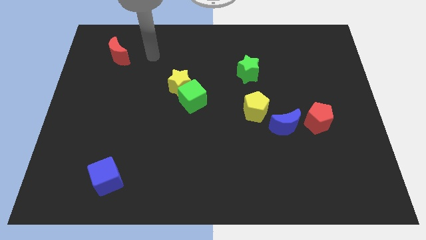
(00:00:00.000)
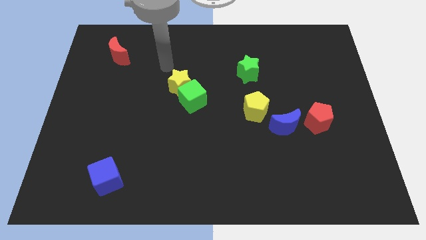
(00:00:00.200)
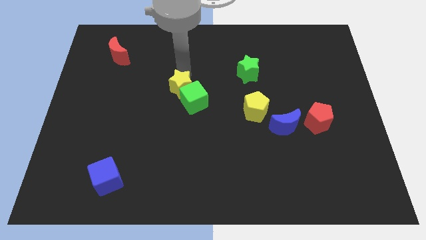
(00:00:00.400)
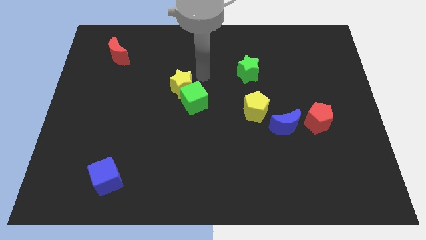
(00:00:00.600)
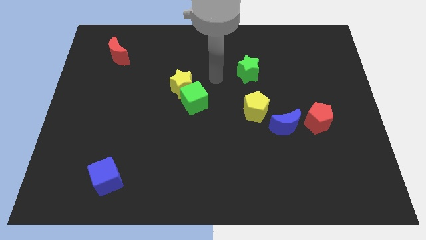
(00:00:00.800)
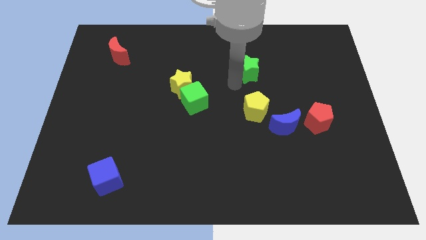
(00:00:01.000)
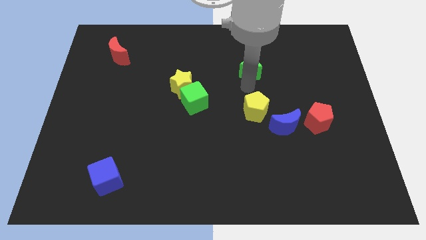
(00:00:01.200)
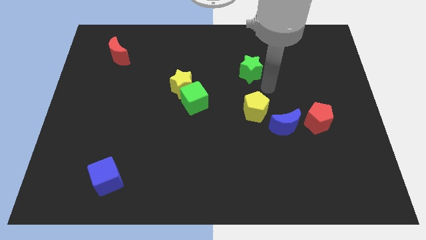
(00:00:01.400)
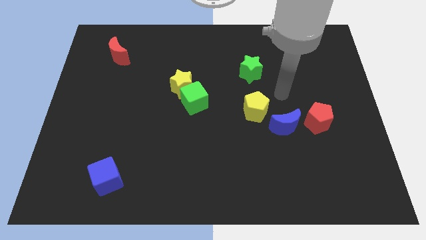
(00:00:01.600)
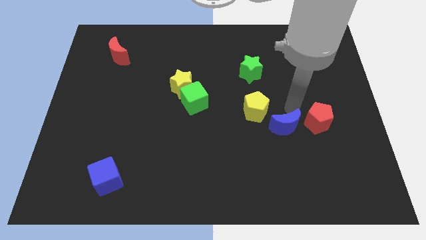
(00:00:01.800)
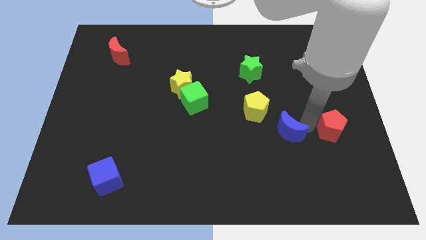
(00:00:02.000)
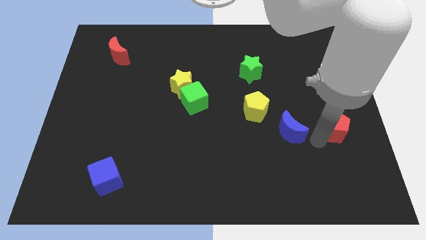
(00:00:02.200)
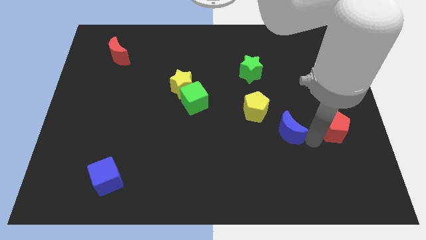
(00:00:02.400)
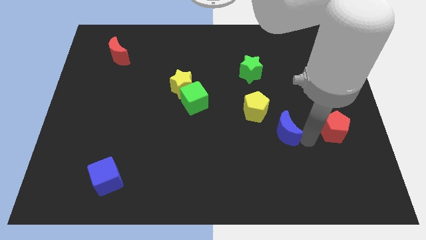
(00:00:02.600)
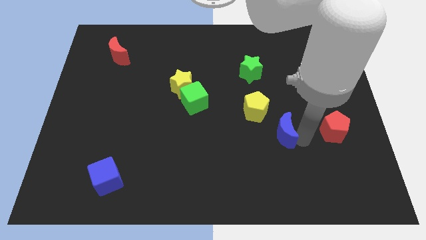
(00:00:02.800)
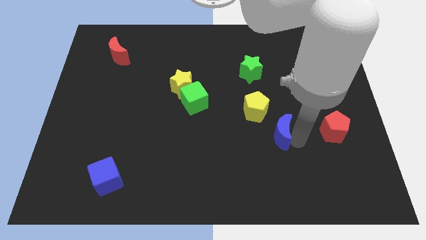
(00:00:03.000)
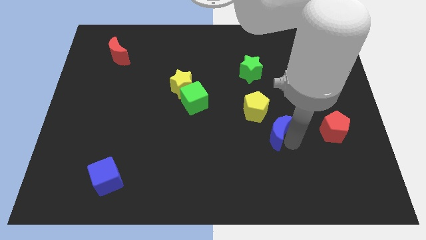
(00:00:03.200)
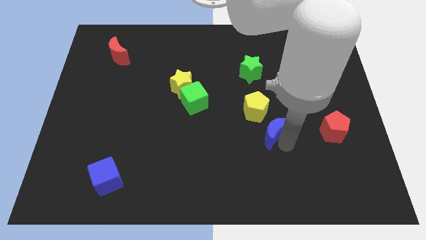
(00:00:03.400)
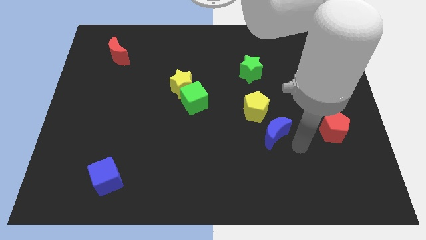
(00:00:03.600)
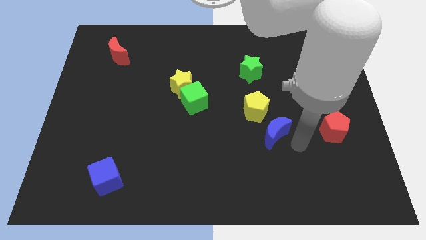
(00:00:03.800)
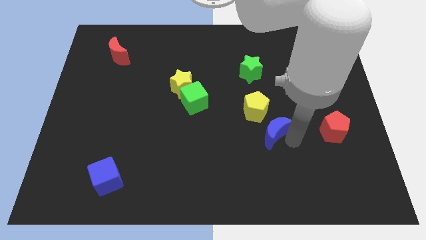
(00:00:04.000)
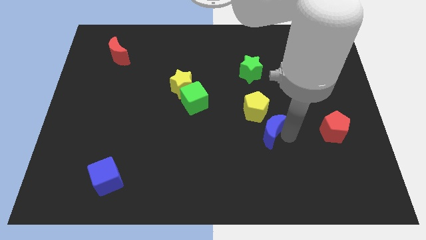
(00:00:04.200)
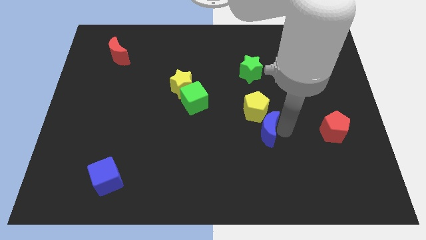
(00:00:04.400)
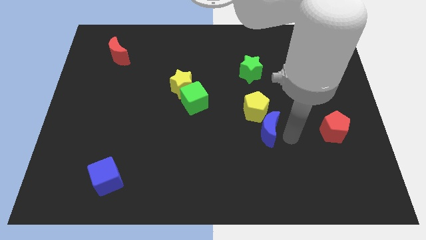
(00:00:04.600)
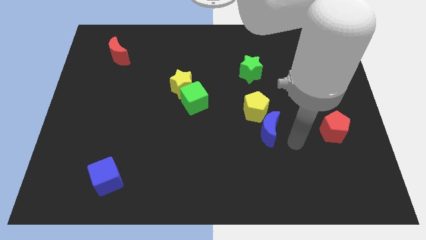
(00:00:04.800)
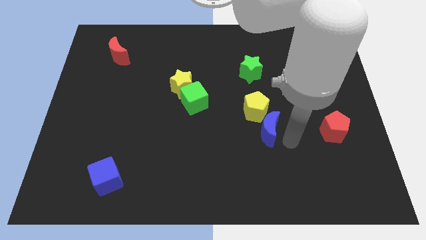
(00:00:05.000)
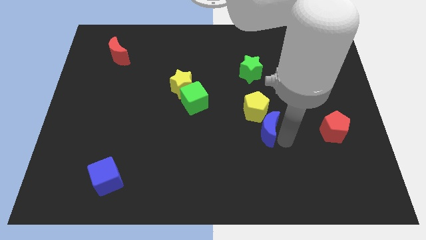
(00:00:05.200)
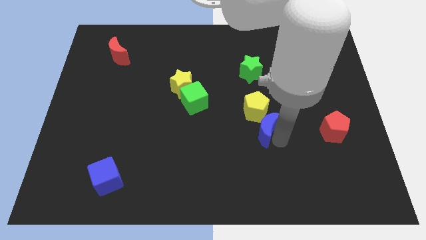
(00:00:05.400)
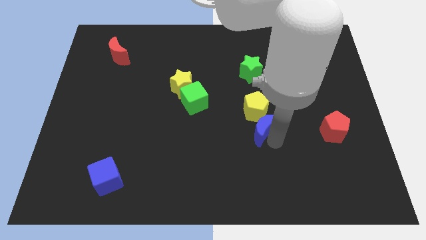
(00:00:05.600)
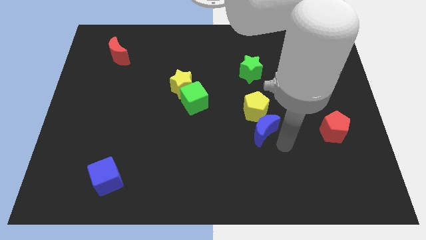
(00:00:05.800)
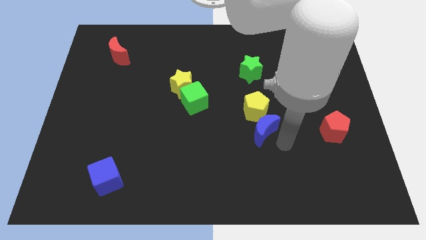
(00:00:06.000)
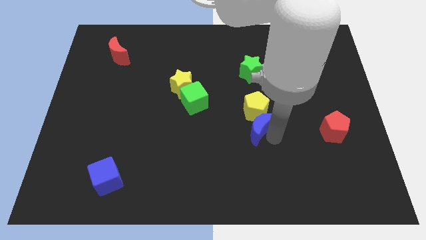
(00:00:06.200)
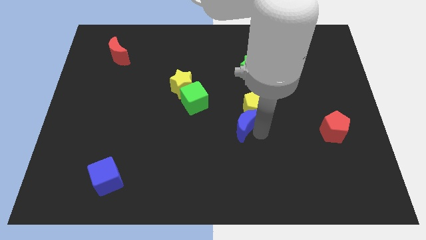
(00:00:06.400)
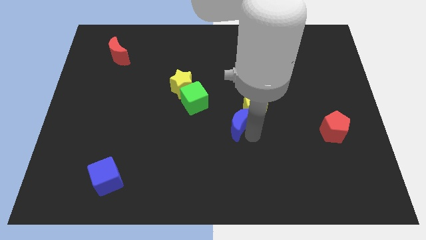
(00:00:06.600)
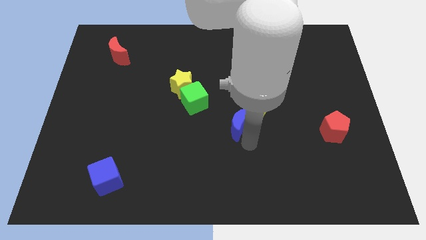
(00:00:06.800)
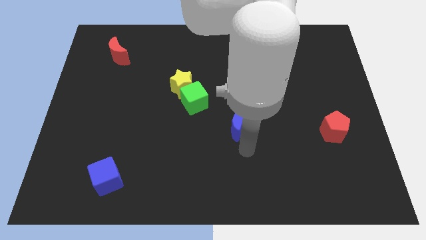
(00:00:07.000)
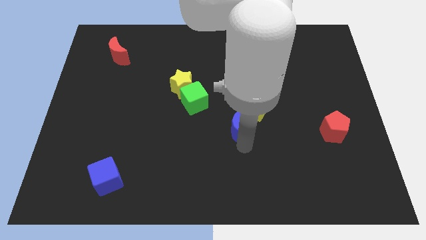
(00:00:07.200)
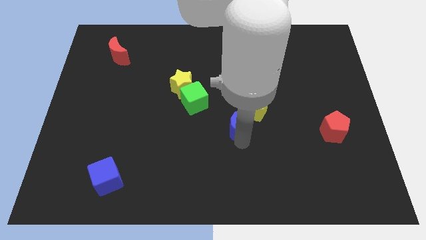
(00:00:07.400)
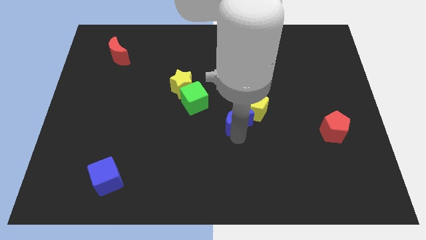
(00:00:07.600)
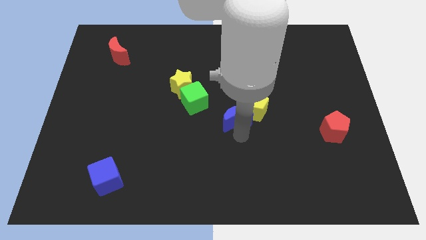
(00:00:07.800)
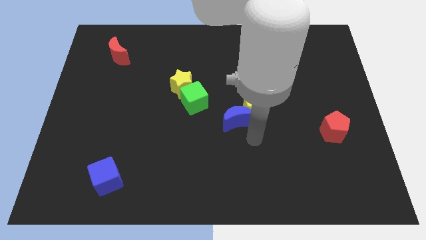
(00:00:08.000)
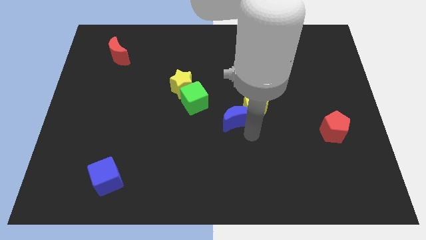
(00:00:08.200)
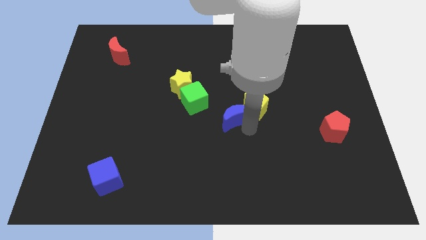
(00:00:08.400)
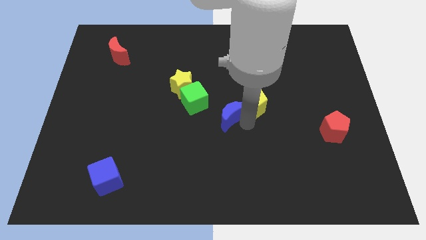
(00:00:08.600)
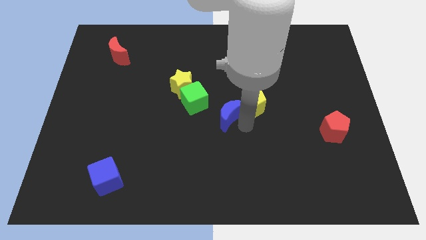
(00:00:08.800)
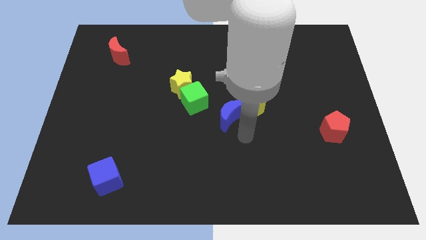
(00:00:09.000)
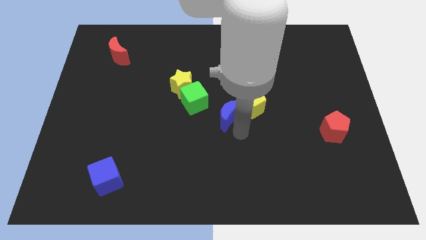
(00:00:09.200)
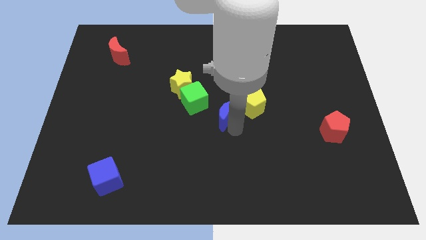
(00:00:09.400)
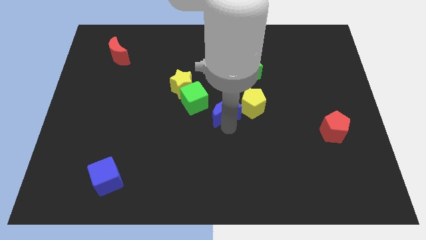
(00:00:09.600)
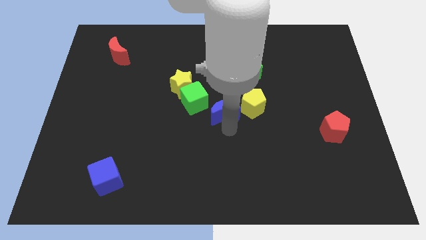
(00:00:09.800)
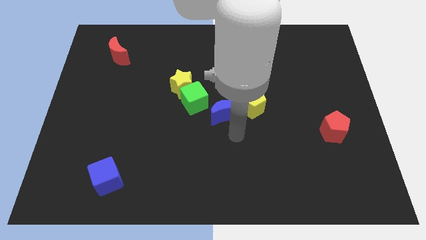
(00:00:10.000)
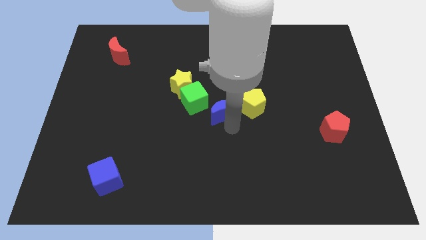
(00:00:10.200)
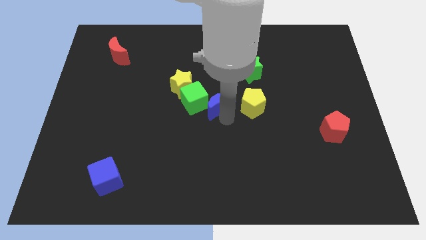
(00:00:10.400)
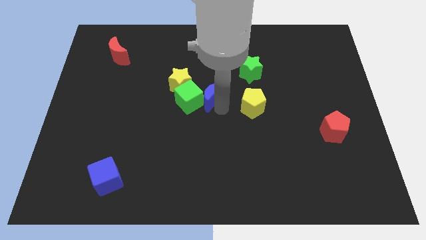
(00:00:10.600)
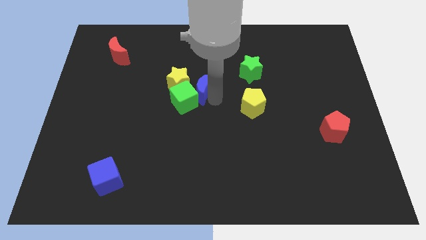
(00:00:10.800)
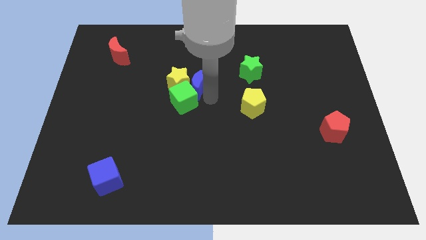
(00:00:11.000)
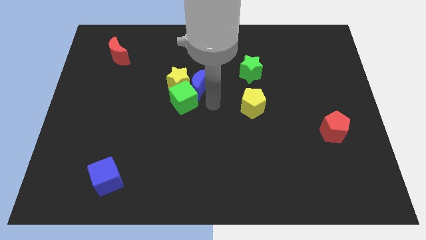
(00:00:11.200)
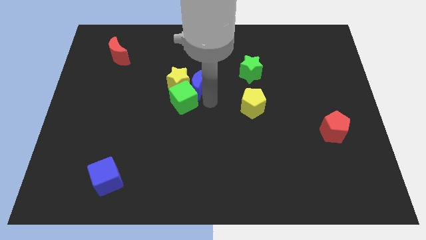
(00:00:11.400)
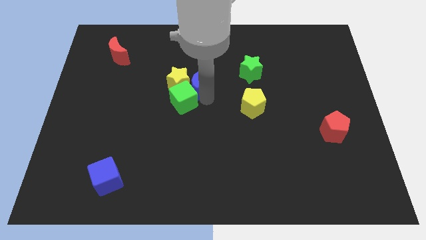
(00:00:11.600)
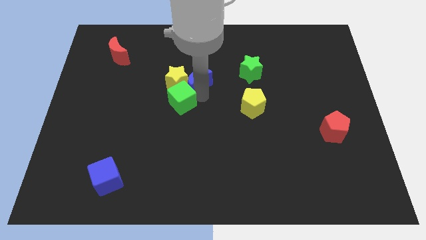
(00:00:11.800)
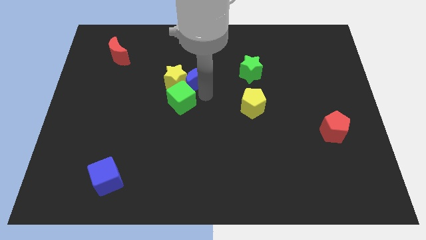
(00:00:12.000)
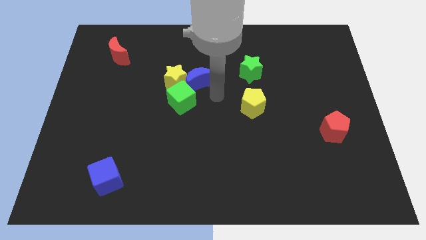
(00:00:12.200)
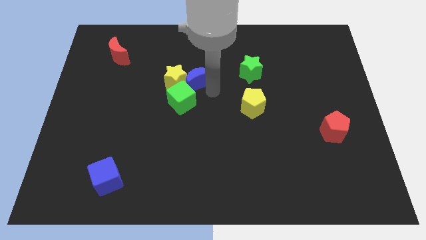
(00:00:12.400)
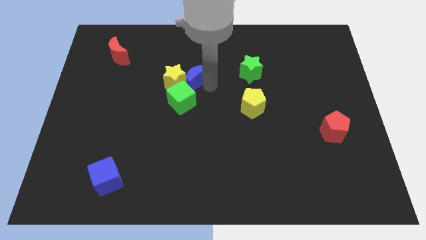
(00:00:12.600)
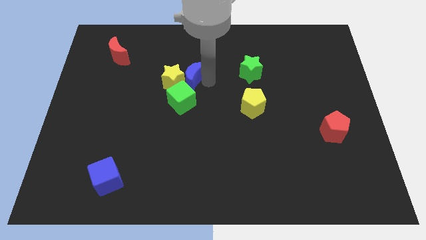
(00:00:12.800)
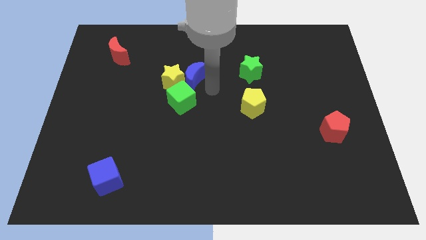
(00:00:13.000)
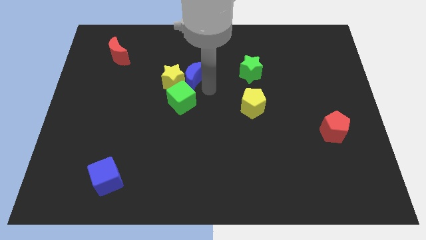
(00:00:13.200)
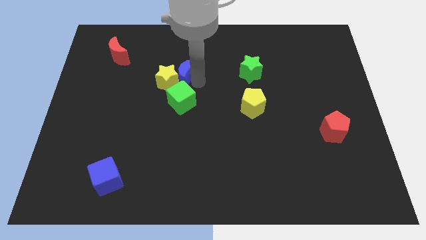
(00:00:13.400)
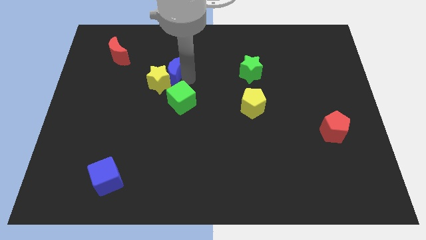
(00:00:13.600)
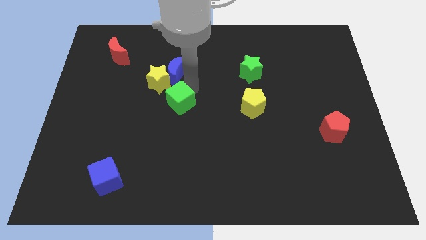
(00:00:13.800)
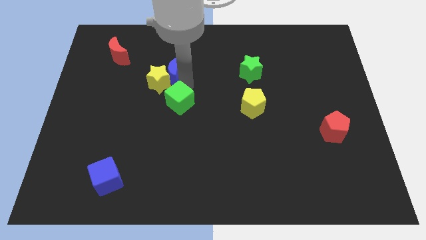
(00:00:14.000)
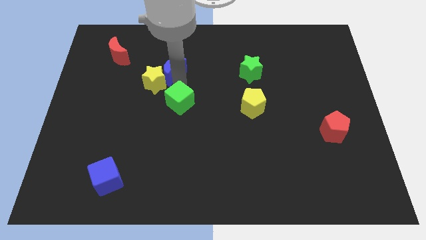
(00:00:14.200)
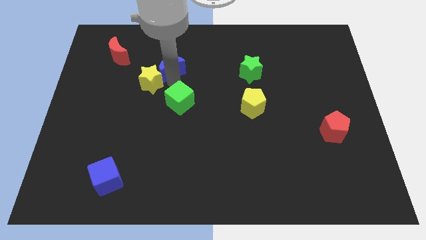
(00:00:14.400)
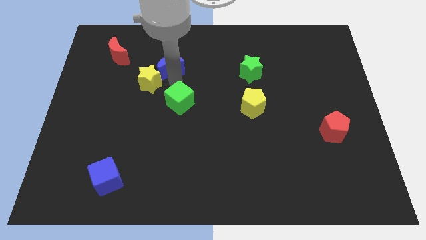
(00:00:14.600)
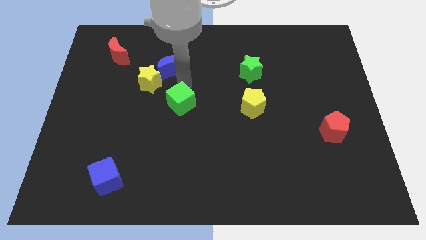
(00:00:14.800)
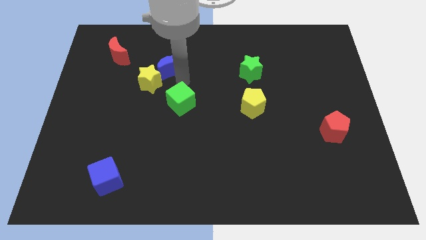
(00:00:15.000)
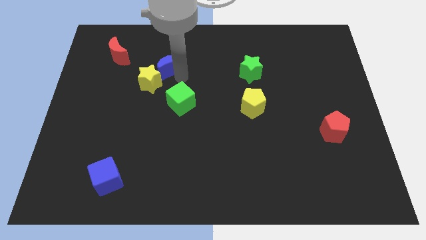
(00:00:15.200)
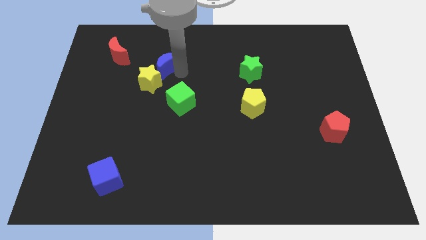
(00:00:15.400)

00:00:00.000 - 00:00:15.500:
slide the blue moon just right of the red moon

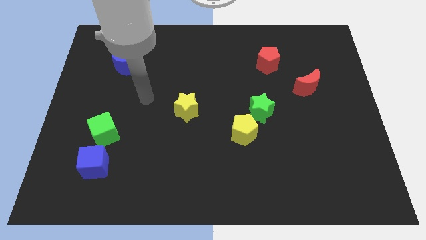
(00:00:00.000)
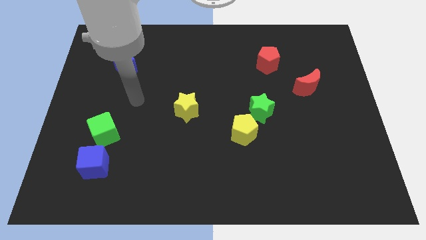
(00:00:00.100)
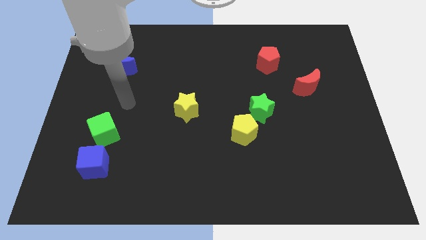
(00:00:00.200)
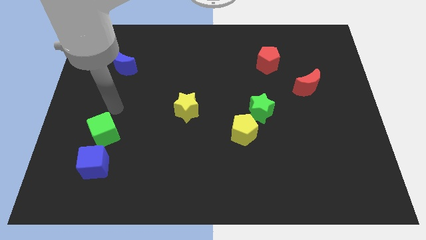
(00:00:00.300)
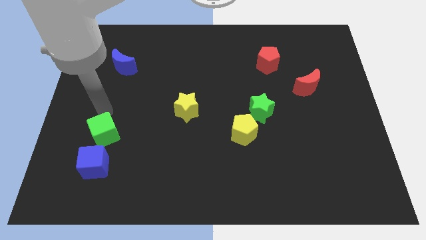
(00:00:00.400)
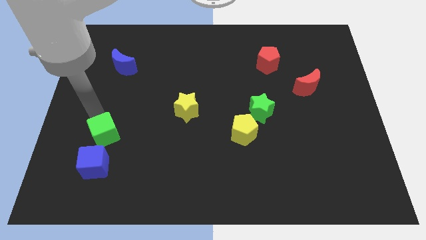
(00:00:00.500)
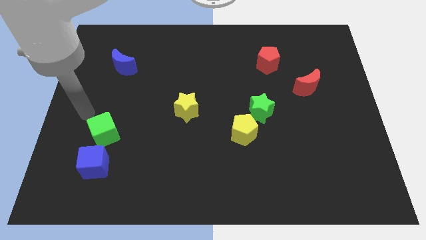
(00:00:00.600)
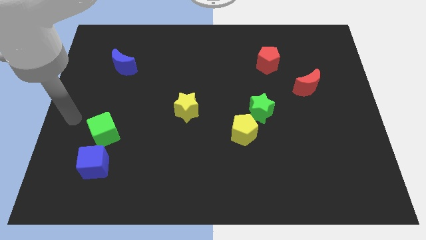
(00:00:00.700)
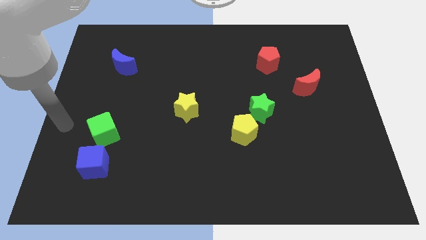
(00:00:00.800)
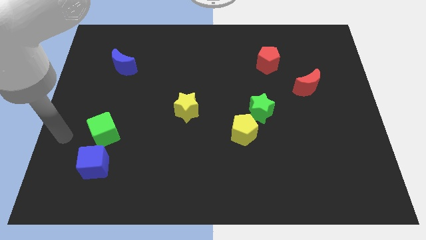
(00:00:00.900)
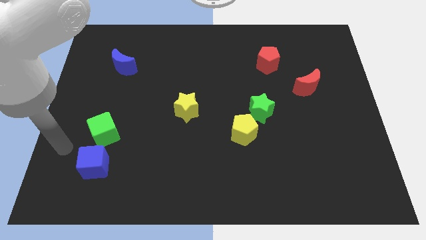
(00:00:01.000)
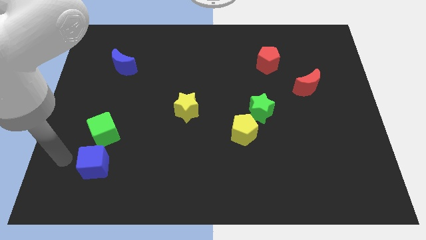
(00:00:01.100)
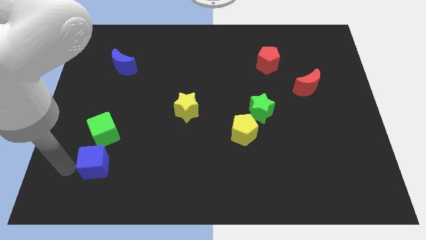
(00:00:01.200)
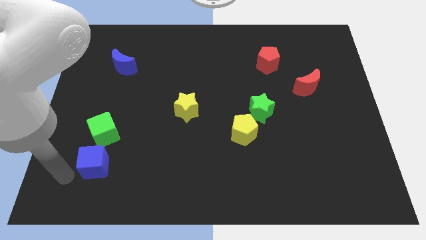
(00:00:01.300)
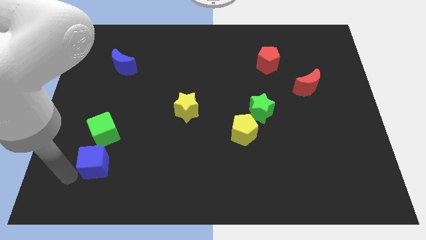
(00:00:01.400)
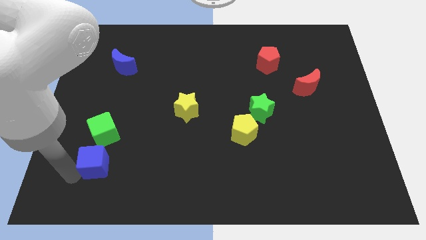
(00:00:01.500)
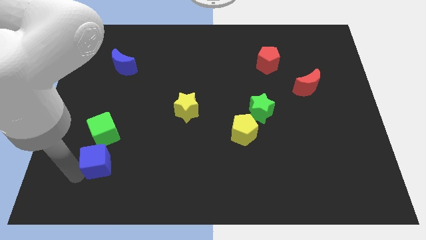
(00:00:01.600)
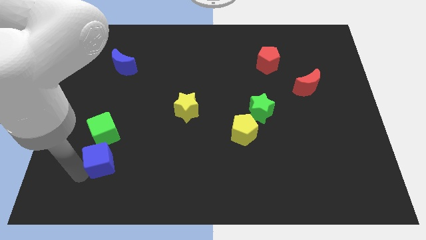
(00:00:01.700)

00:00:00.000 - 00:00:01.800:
slide the blue cube diagonally down and to the right of the green cube
